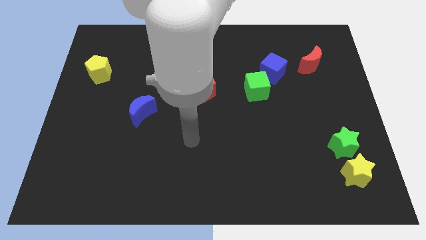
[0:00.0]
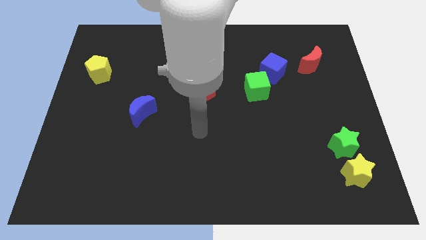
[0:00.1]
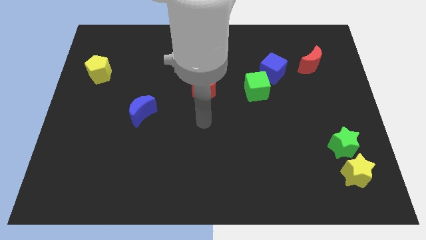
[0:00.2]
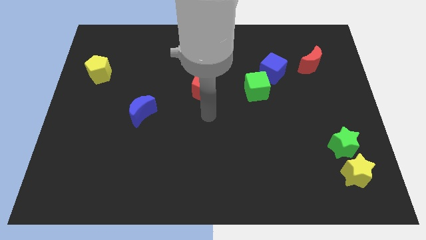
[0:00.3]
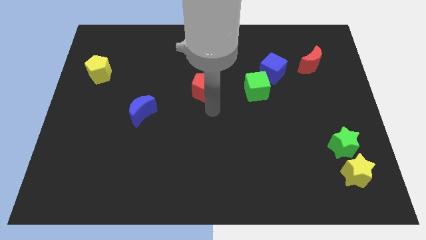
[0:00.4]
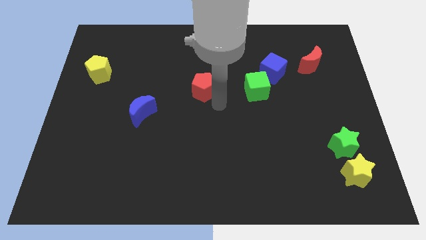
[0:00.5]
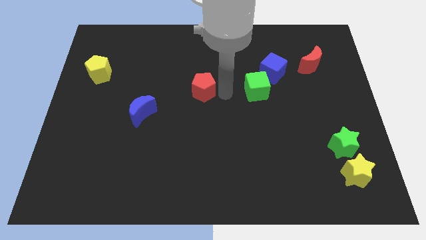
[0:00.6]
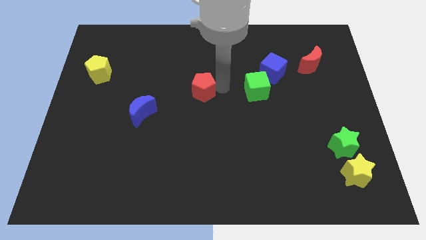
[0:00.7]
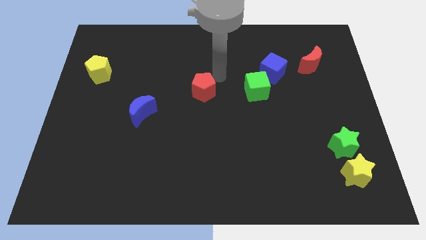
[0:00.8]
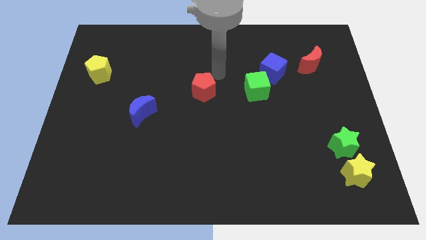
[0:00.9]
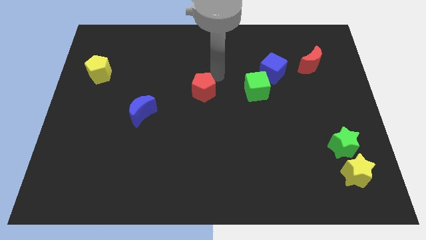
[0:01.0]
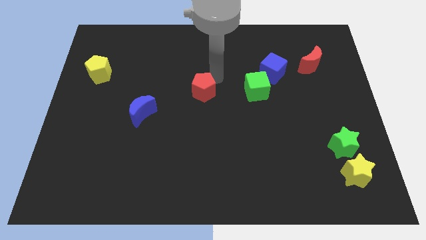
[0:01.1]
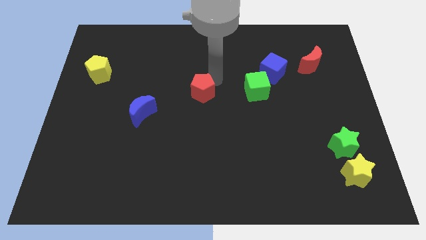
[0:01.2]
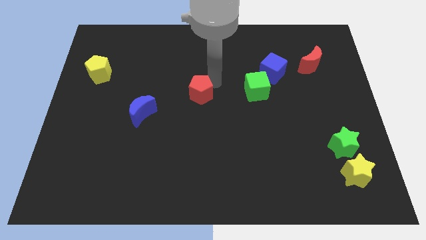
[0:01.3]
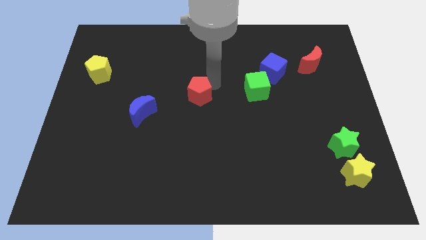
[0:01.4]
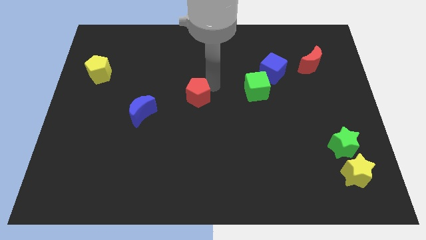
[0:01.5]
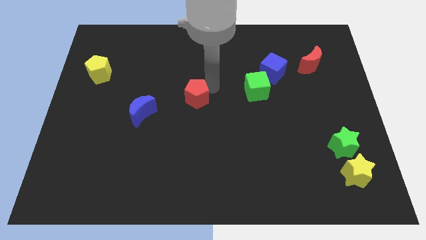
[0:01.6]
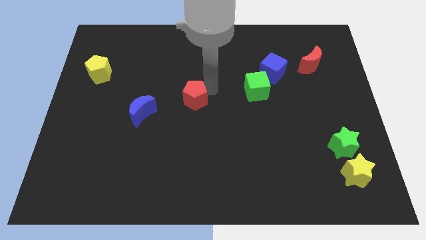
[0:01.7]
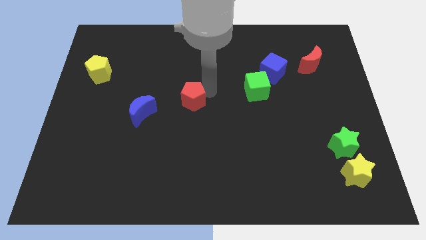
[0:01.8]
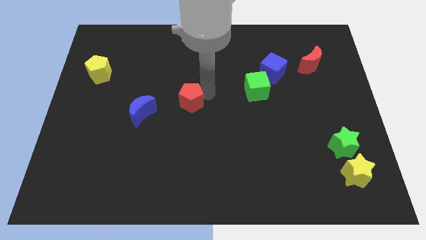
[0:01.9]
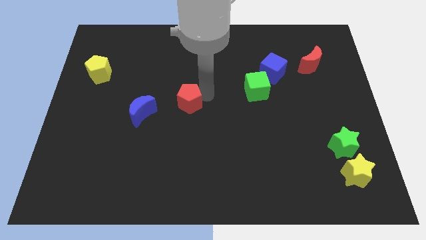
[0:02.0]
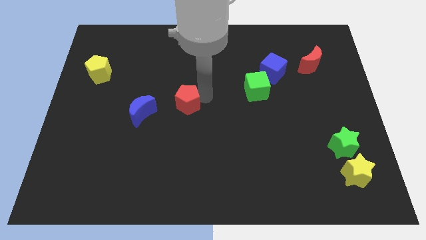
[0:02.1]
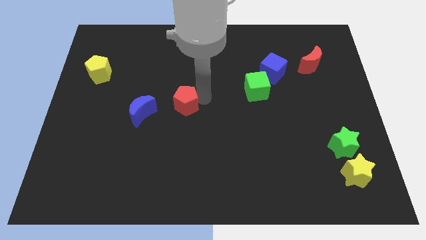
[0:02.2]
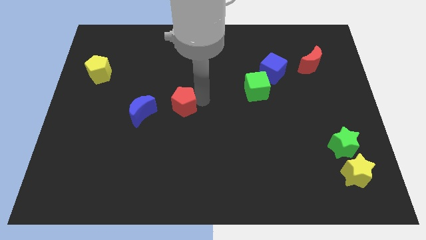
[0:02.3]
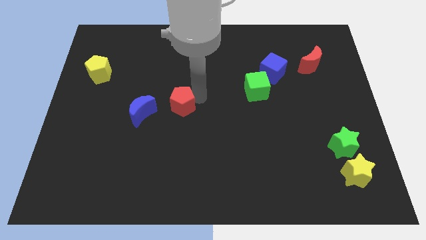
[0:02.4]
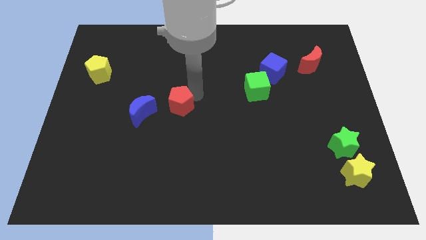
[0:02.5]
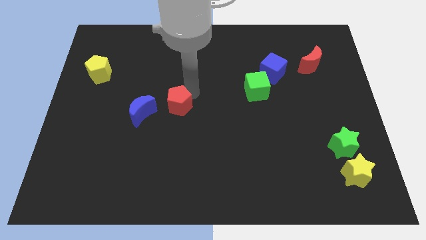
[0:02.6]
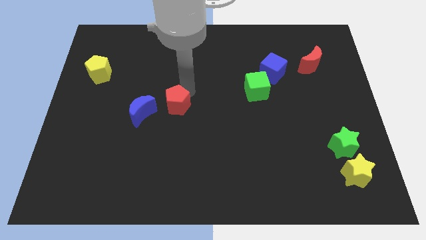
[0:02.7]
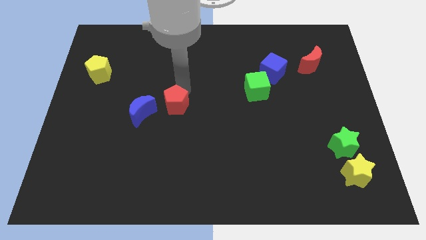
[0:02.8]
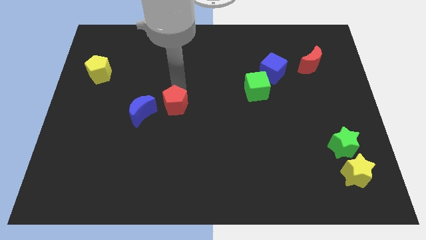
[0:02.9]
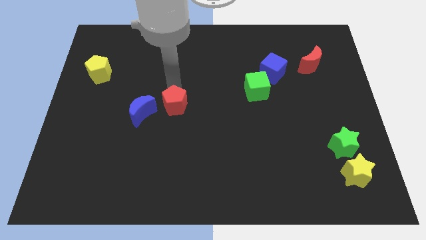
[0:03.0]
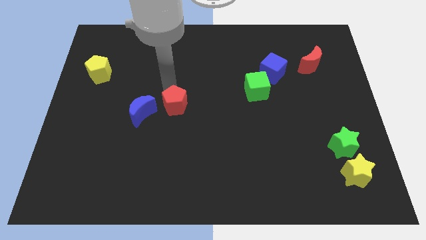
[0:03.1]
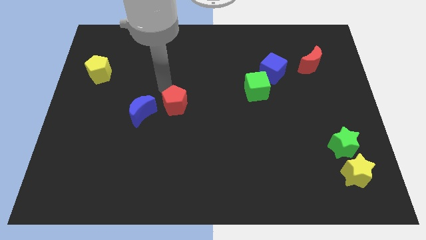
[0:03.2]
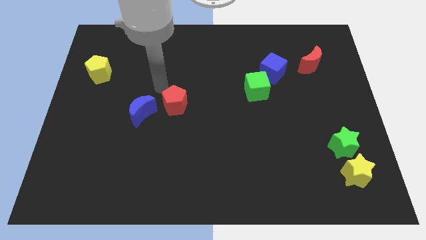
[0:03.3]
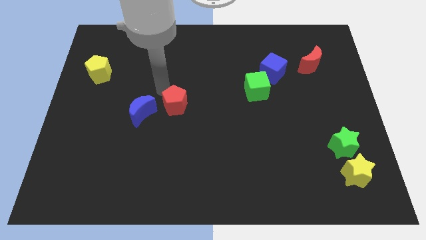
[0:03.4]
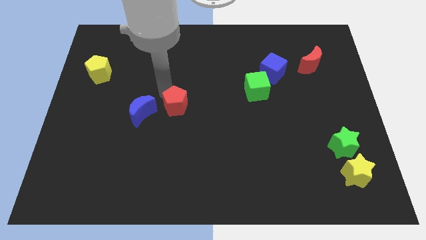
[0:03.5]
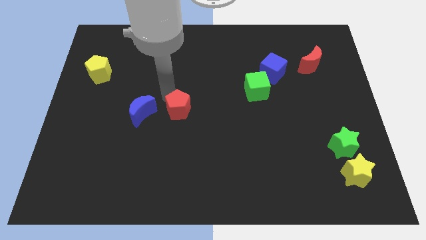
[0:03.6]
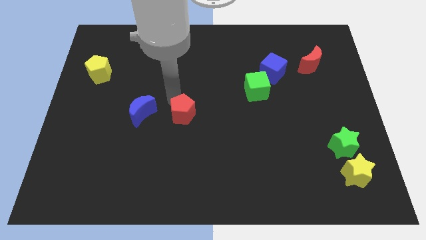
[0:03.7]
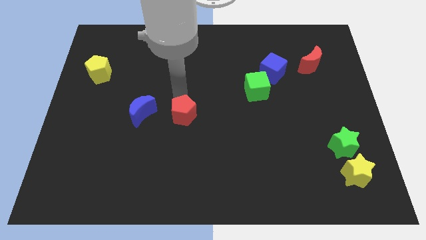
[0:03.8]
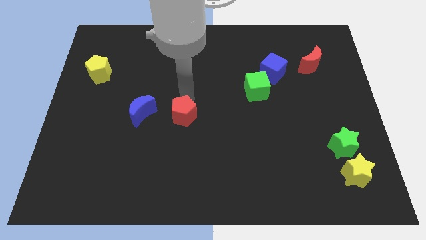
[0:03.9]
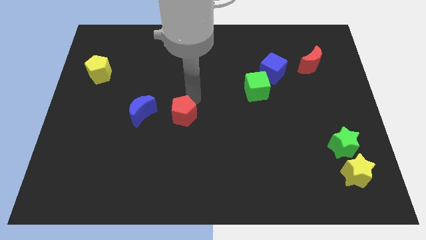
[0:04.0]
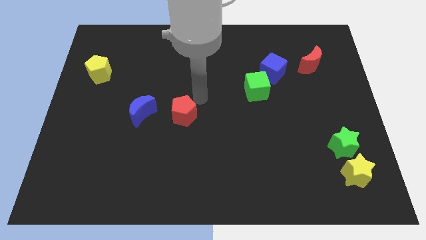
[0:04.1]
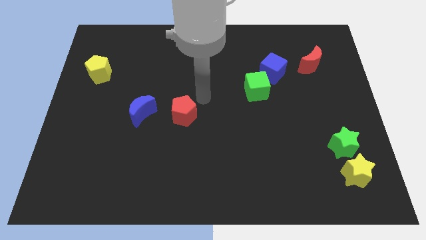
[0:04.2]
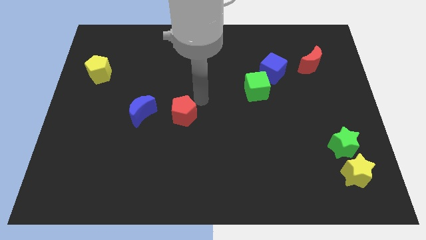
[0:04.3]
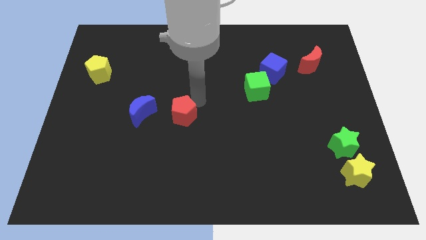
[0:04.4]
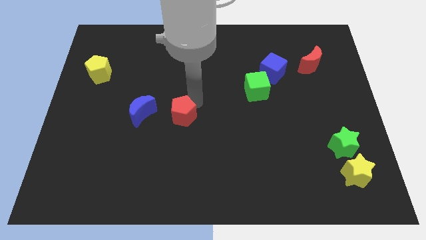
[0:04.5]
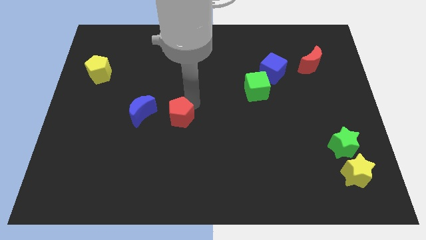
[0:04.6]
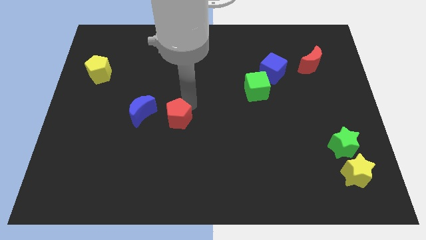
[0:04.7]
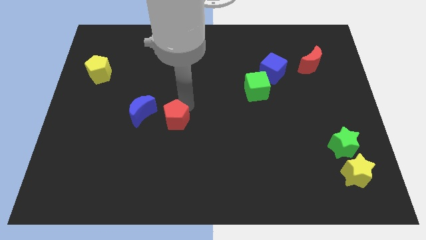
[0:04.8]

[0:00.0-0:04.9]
put the red pentagon to the bottom right side of the blue moon

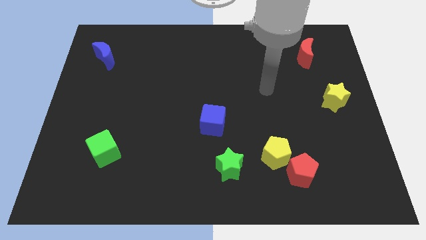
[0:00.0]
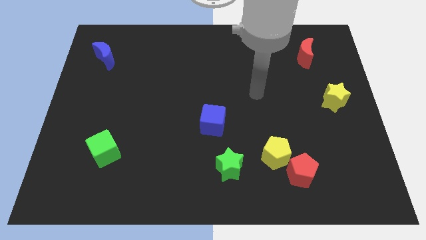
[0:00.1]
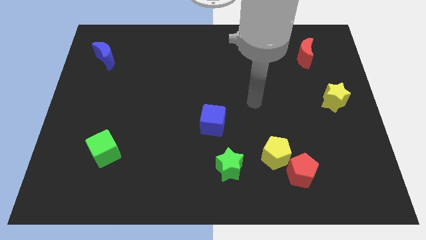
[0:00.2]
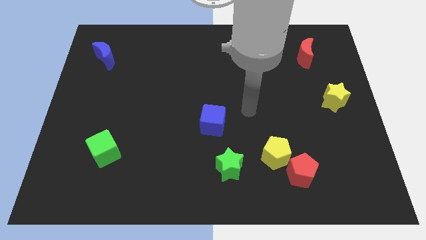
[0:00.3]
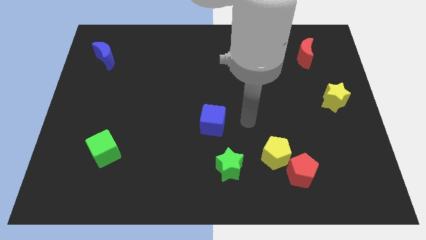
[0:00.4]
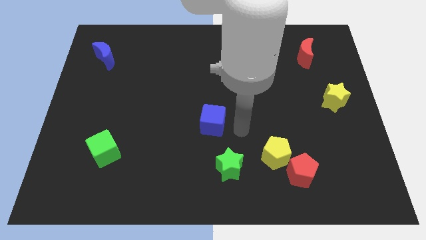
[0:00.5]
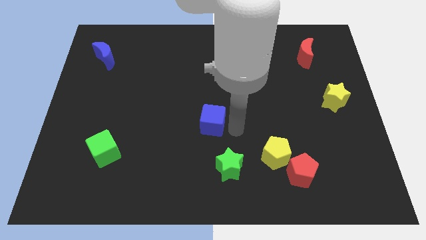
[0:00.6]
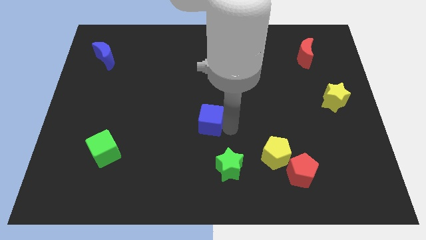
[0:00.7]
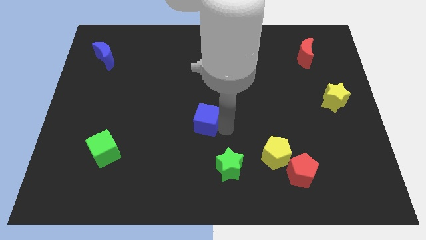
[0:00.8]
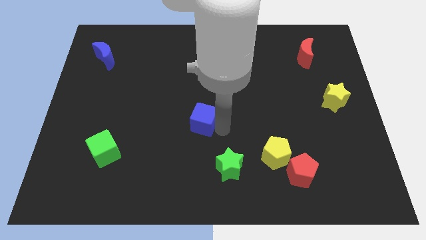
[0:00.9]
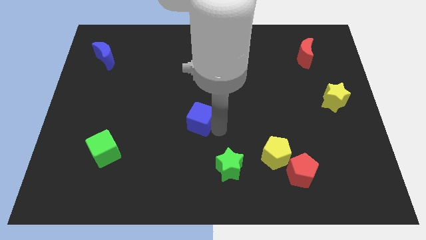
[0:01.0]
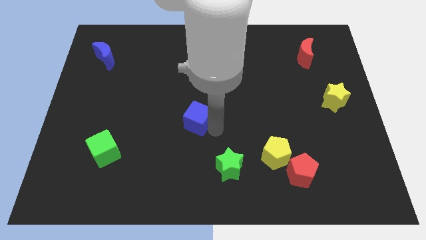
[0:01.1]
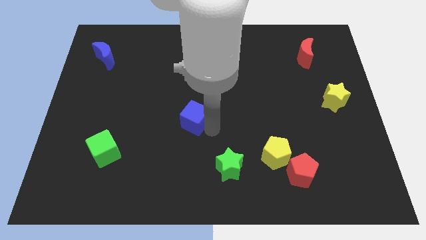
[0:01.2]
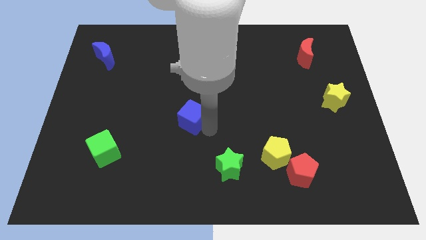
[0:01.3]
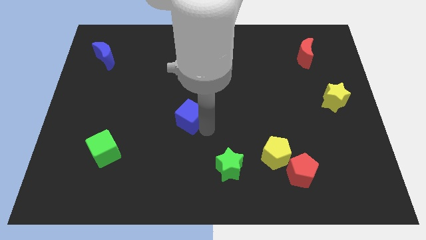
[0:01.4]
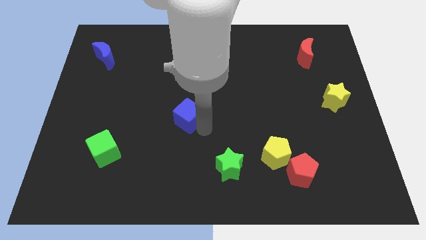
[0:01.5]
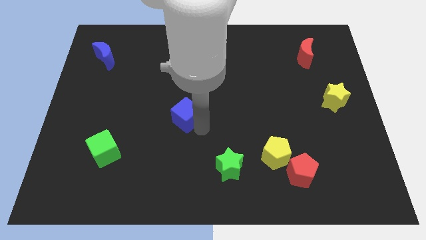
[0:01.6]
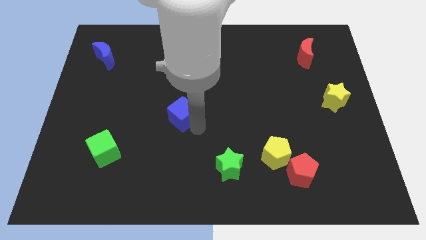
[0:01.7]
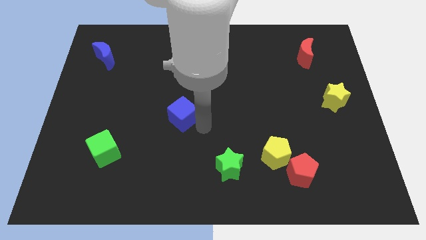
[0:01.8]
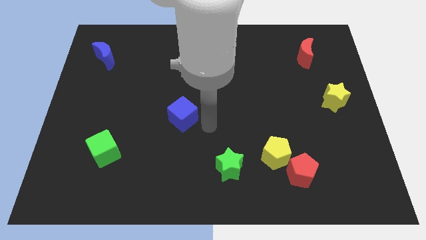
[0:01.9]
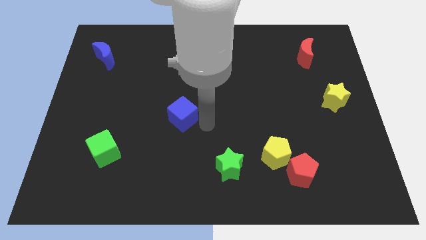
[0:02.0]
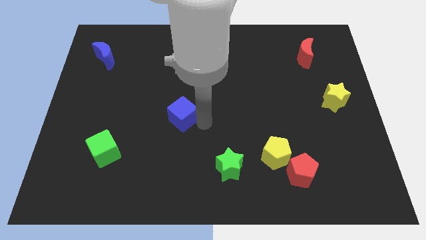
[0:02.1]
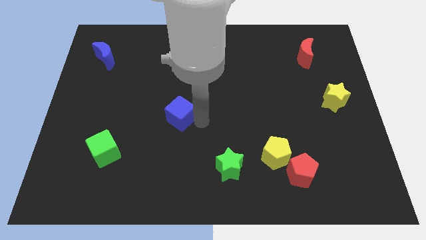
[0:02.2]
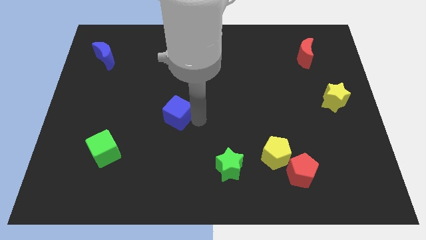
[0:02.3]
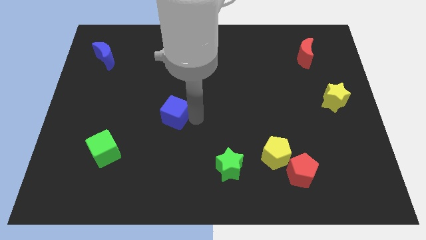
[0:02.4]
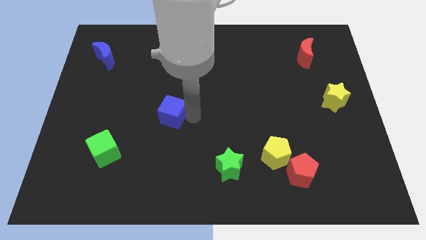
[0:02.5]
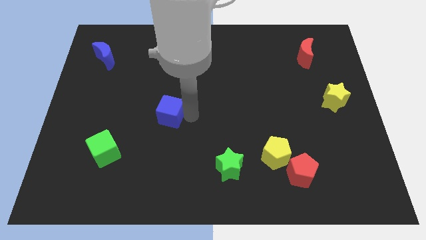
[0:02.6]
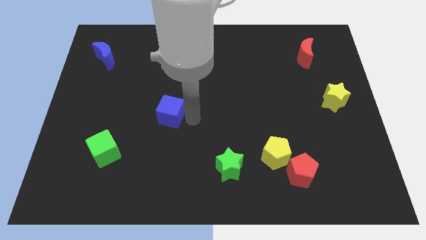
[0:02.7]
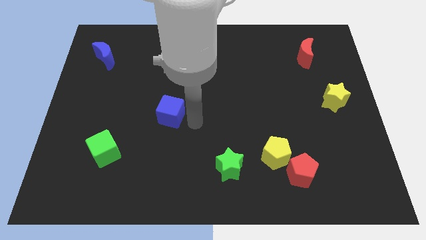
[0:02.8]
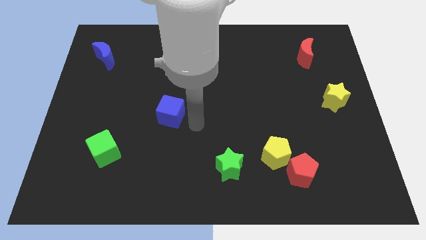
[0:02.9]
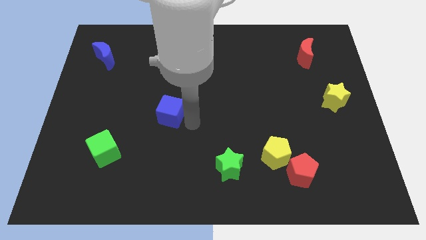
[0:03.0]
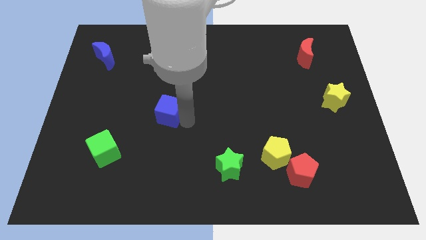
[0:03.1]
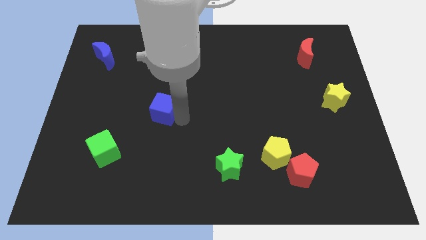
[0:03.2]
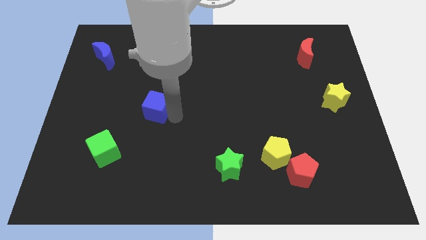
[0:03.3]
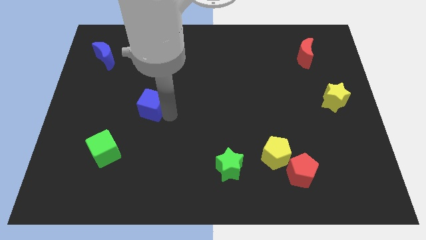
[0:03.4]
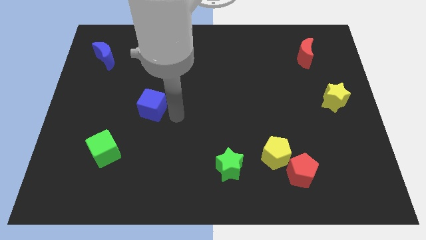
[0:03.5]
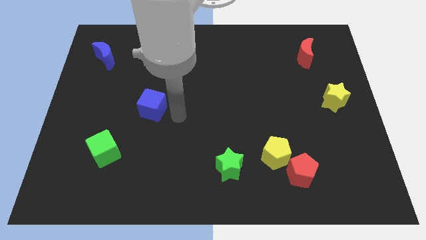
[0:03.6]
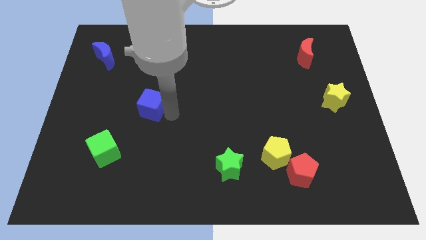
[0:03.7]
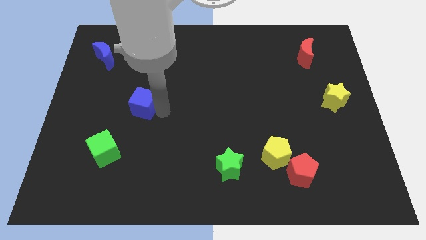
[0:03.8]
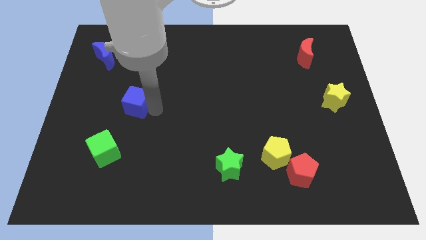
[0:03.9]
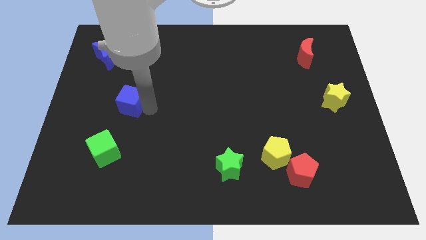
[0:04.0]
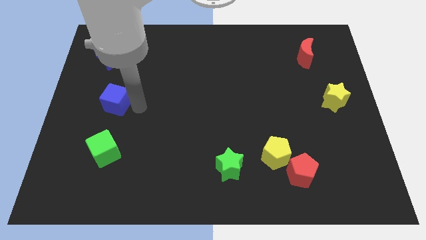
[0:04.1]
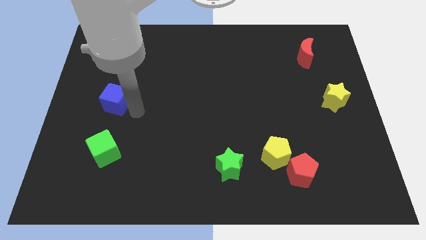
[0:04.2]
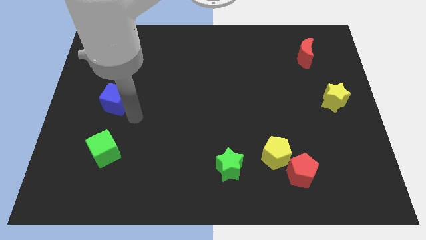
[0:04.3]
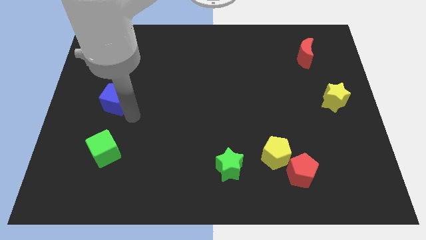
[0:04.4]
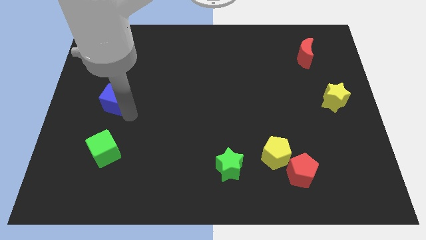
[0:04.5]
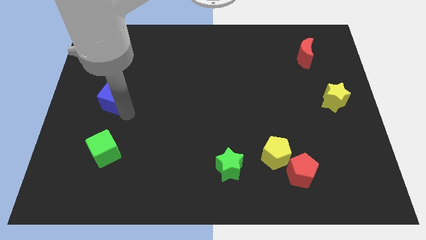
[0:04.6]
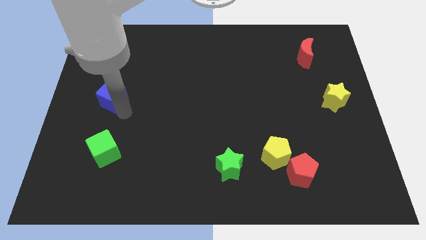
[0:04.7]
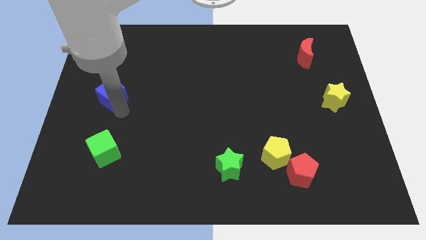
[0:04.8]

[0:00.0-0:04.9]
slide the blue cube to the bottom of the blue moon
